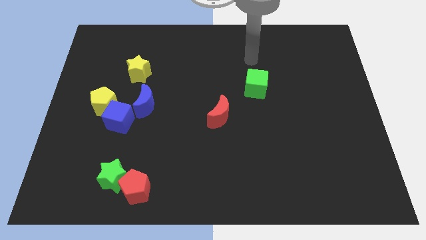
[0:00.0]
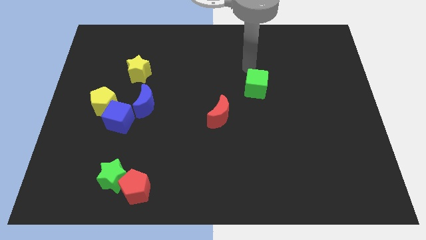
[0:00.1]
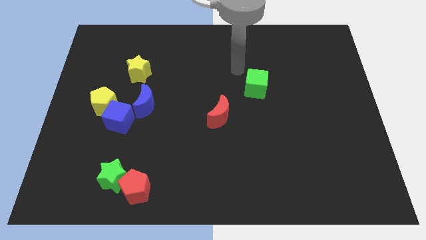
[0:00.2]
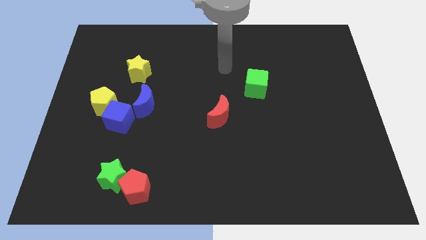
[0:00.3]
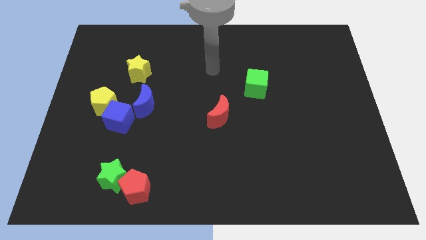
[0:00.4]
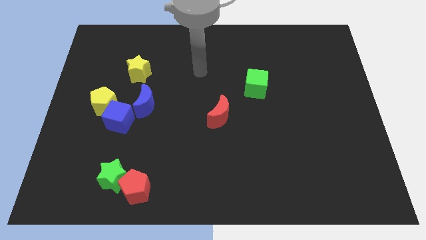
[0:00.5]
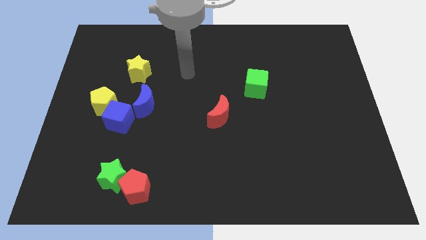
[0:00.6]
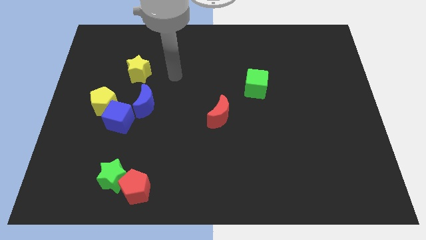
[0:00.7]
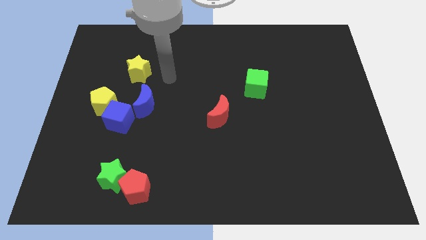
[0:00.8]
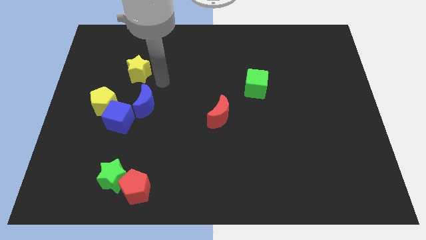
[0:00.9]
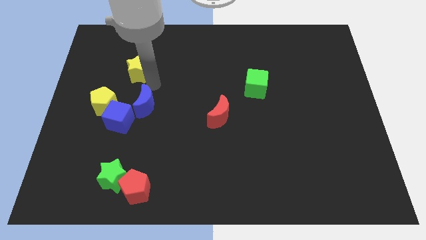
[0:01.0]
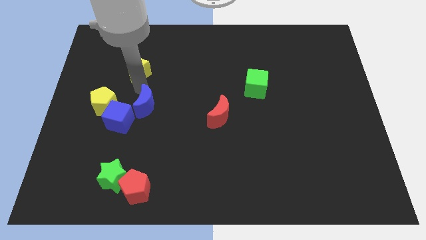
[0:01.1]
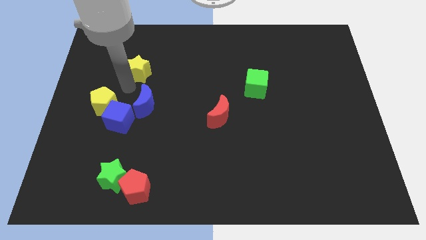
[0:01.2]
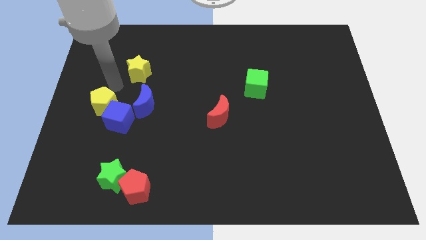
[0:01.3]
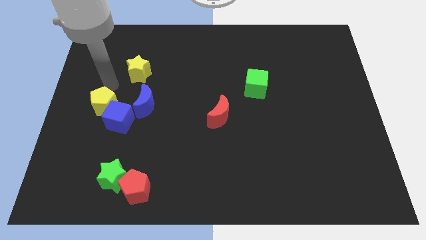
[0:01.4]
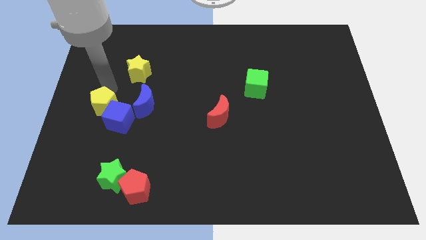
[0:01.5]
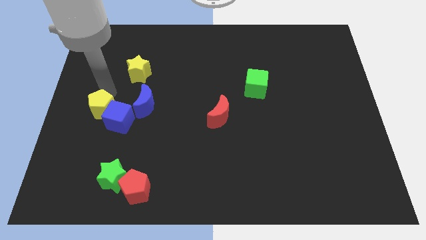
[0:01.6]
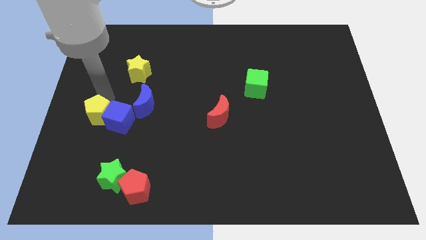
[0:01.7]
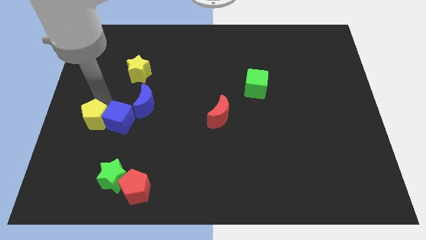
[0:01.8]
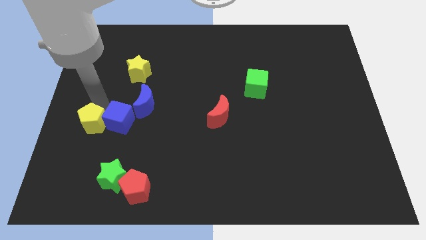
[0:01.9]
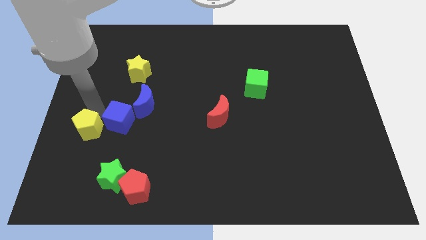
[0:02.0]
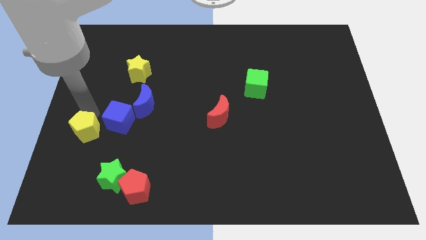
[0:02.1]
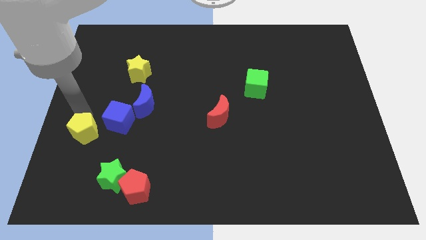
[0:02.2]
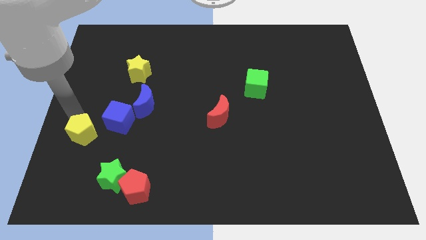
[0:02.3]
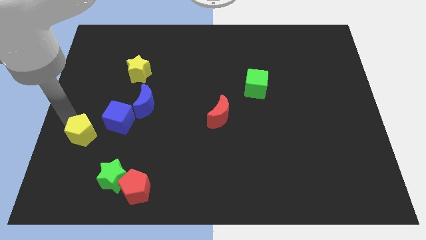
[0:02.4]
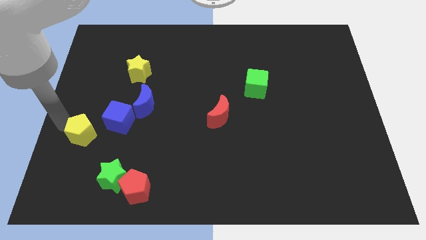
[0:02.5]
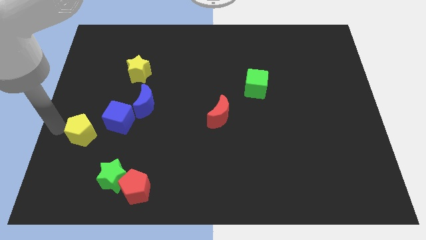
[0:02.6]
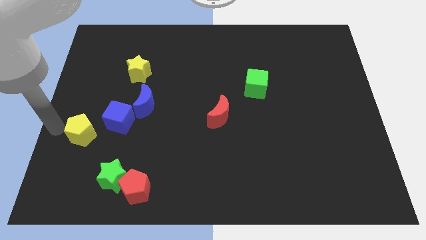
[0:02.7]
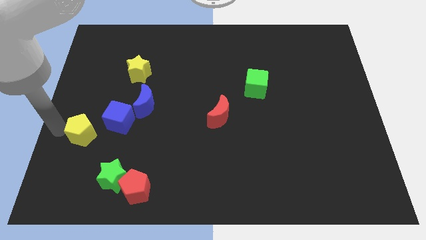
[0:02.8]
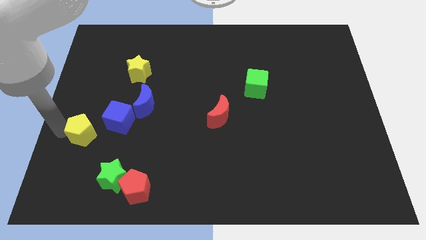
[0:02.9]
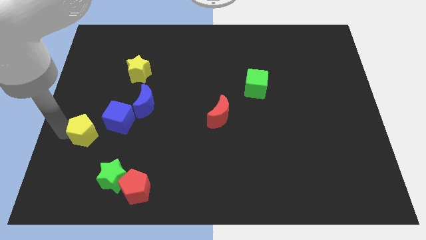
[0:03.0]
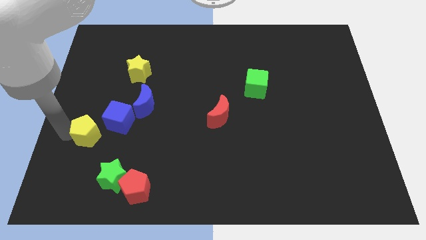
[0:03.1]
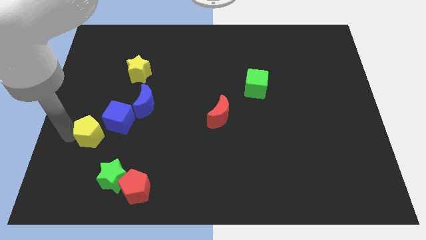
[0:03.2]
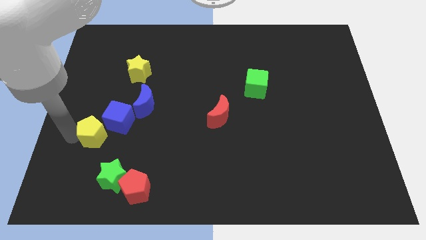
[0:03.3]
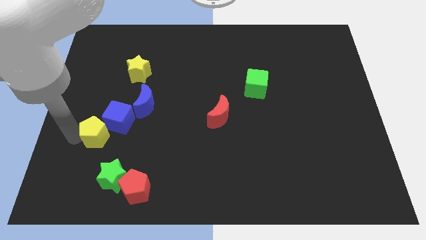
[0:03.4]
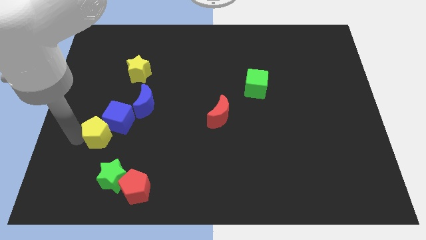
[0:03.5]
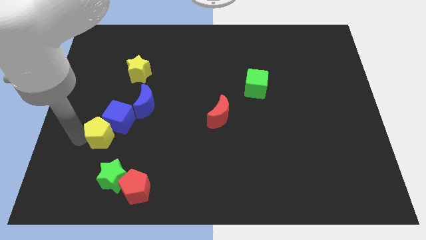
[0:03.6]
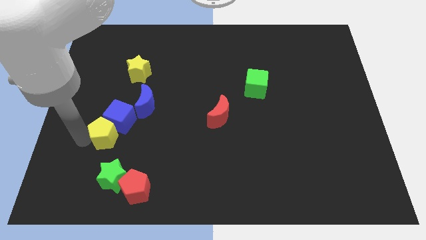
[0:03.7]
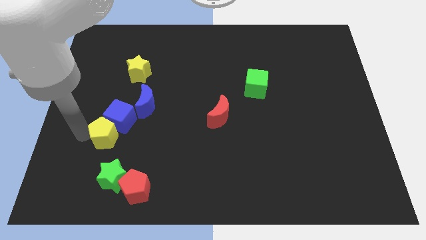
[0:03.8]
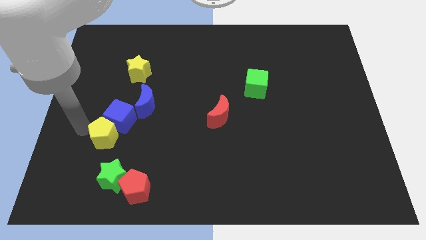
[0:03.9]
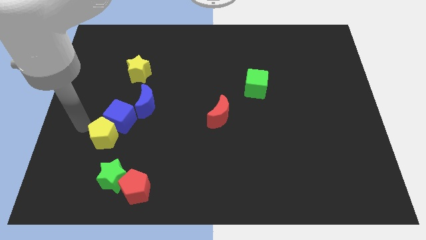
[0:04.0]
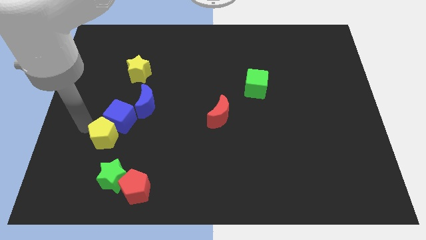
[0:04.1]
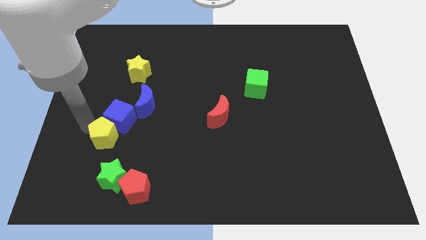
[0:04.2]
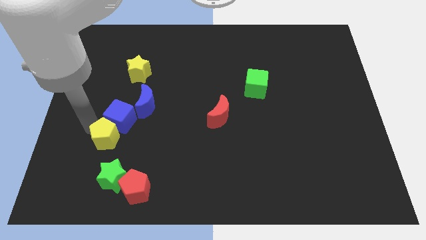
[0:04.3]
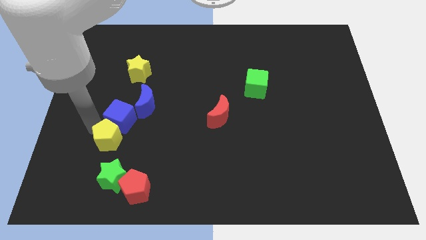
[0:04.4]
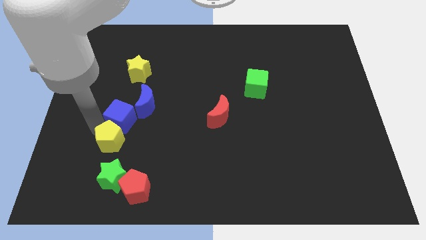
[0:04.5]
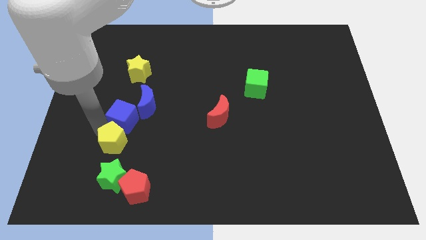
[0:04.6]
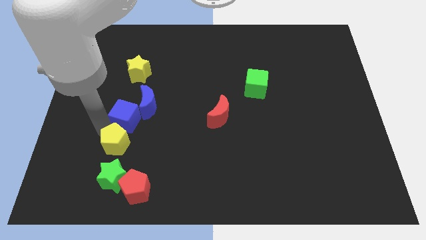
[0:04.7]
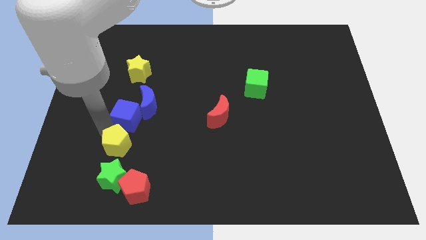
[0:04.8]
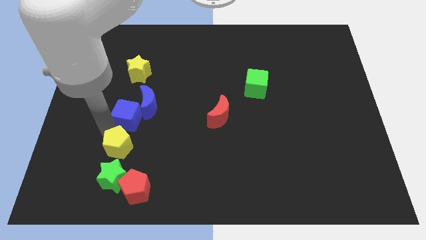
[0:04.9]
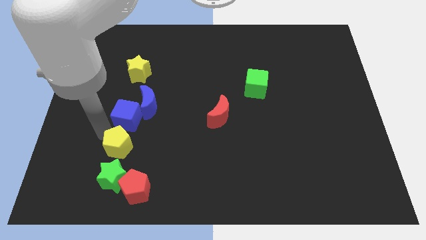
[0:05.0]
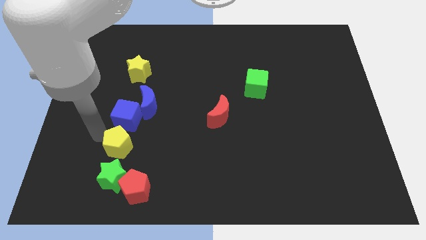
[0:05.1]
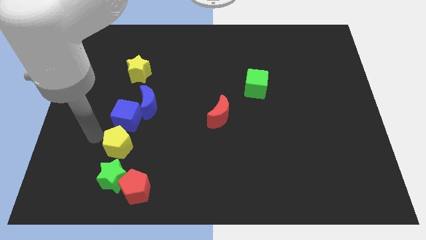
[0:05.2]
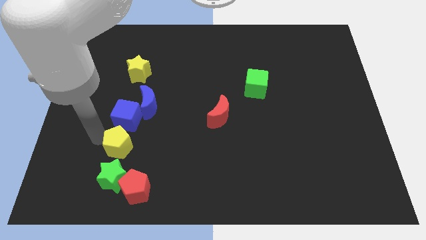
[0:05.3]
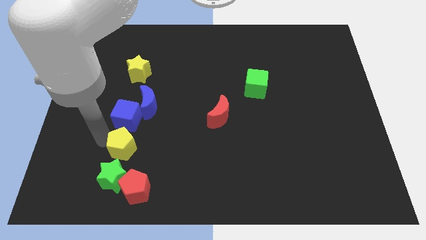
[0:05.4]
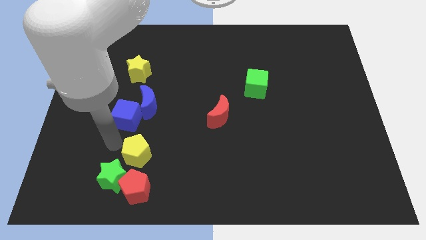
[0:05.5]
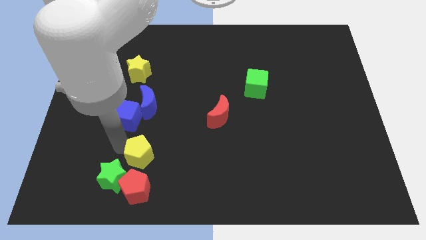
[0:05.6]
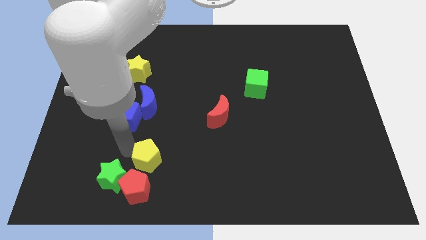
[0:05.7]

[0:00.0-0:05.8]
slide the yellow pentagon to the top right of the red pentagon
